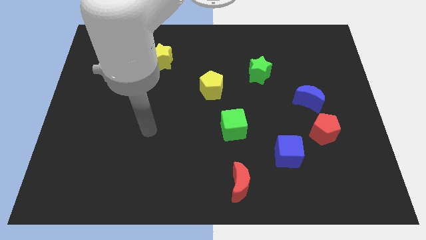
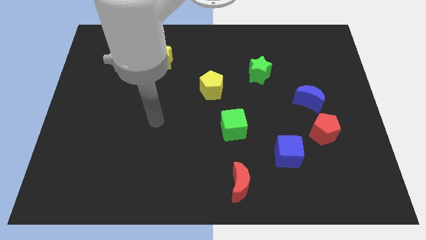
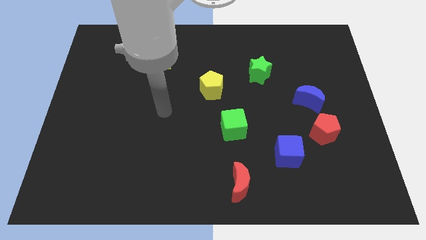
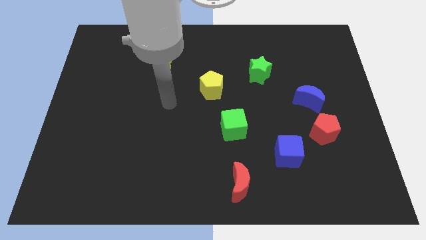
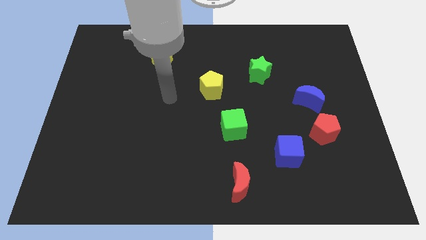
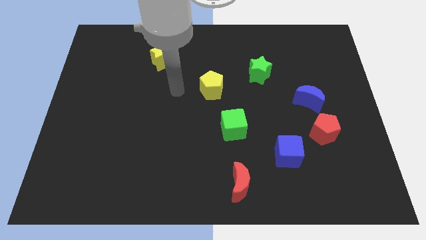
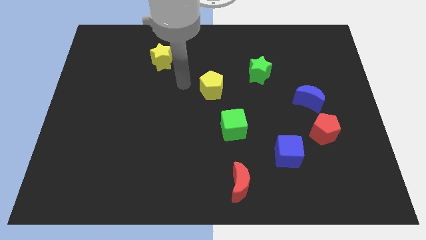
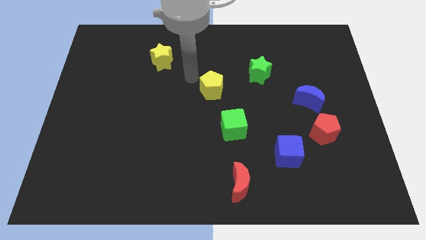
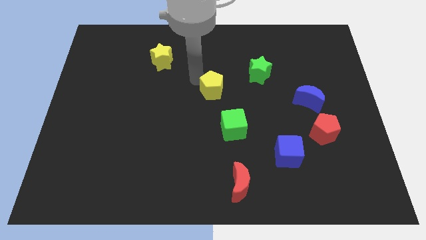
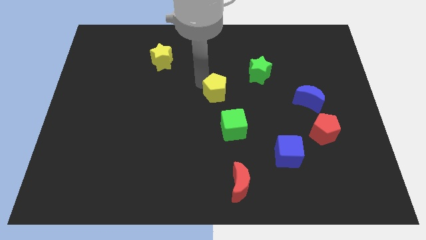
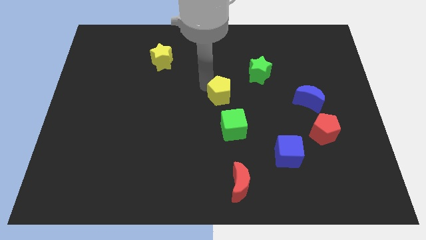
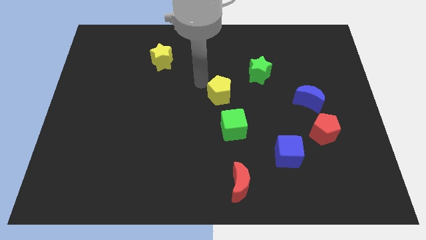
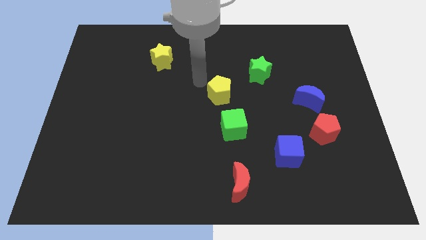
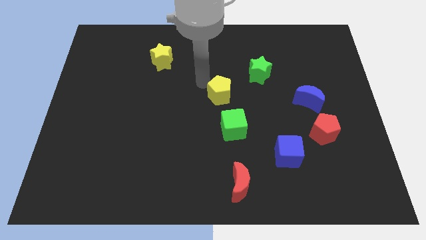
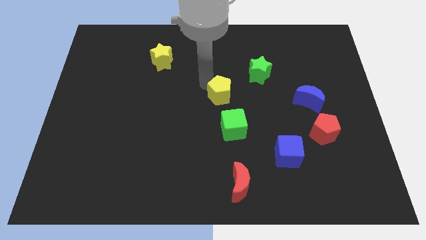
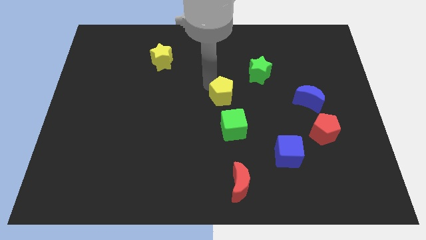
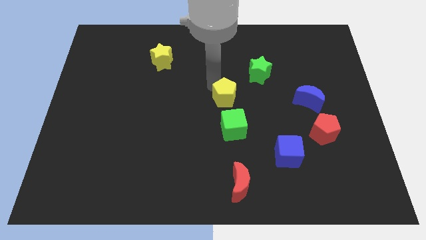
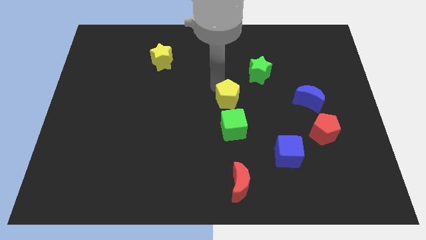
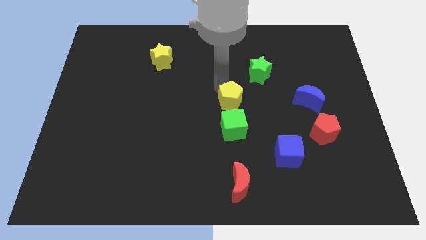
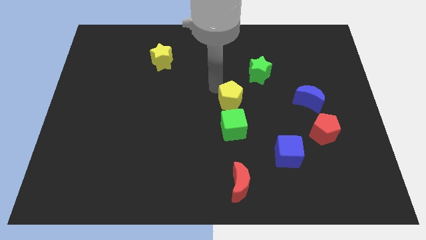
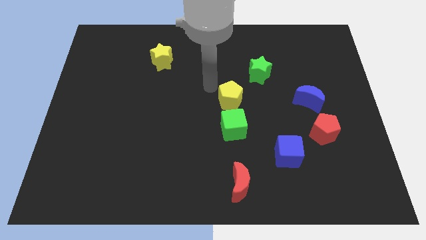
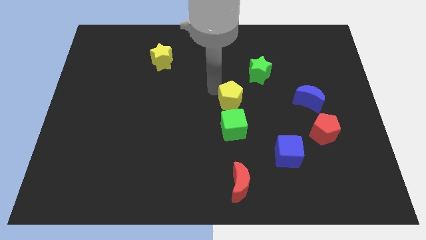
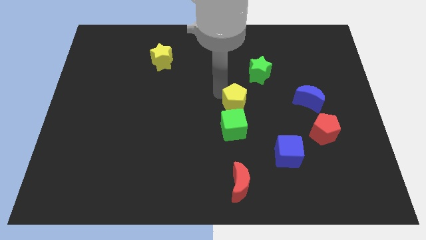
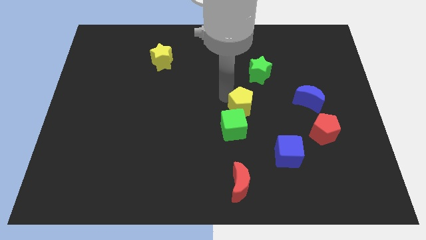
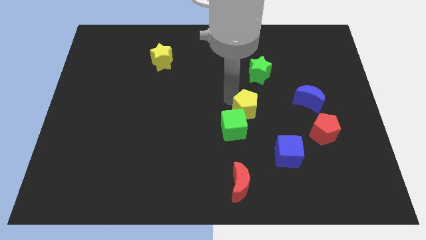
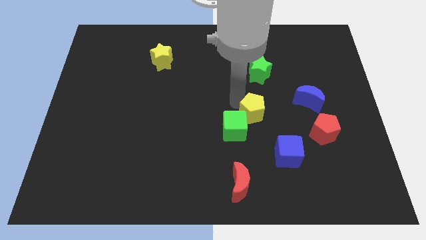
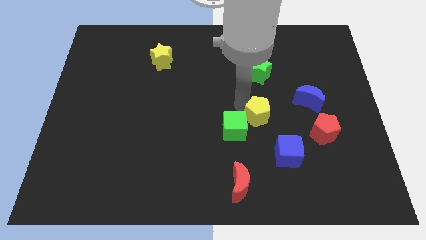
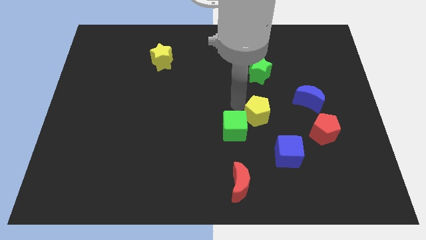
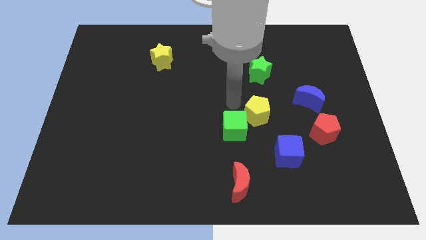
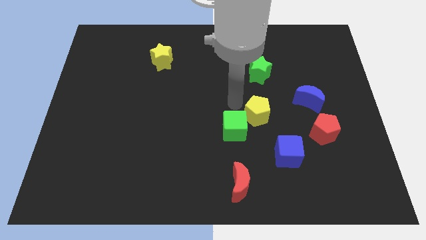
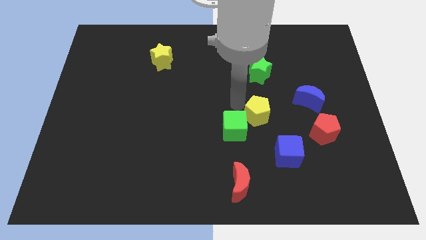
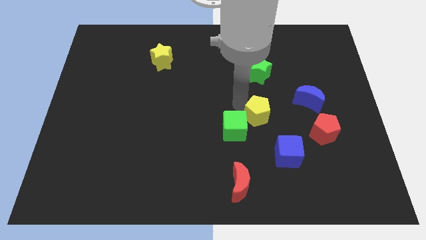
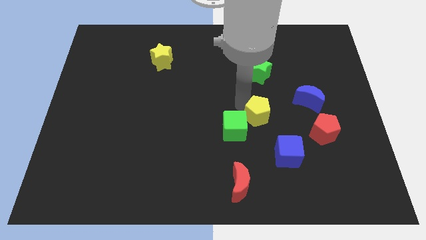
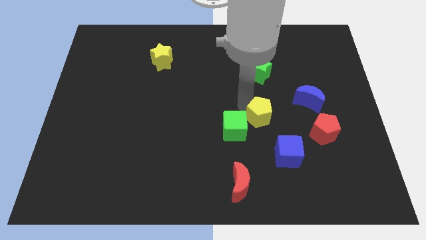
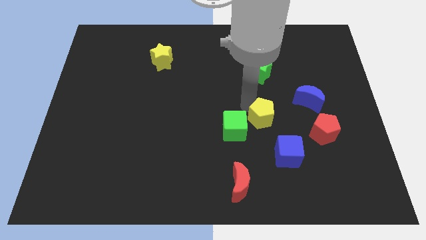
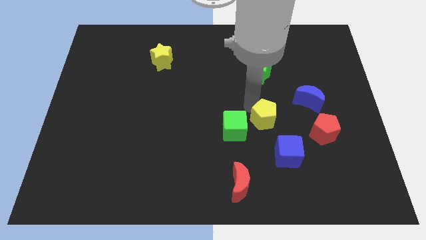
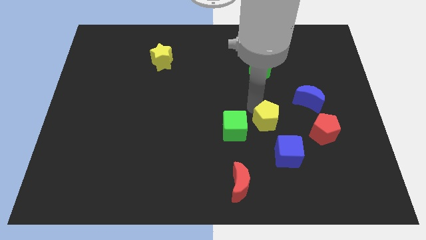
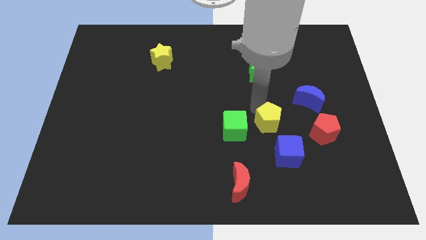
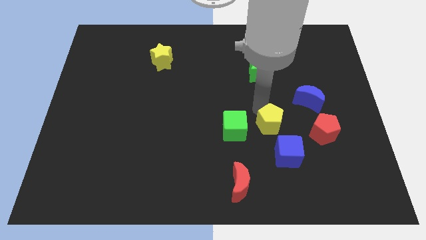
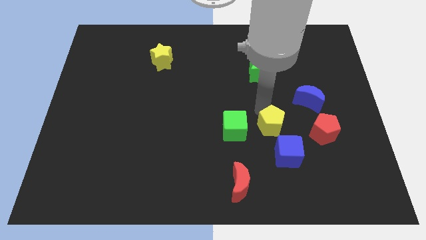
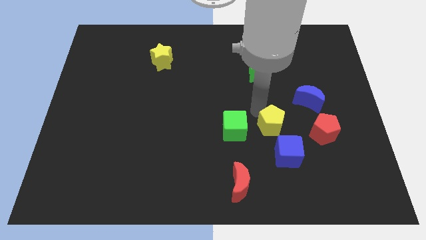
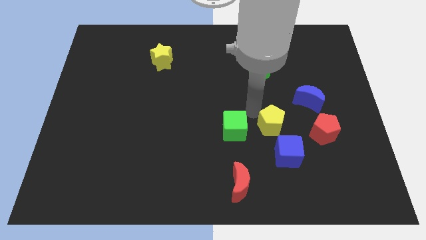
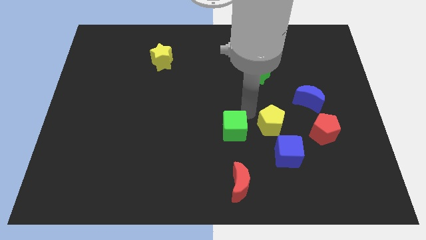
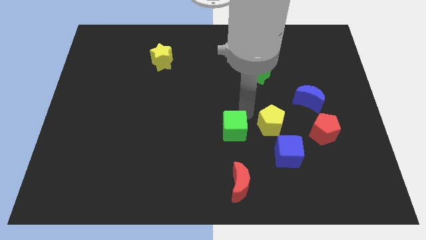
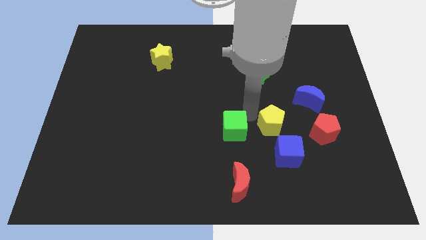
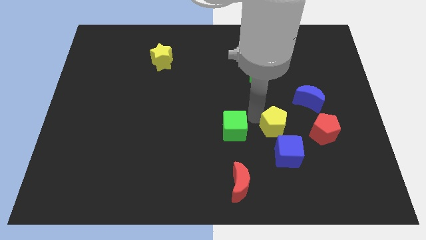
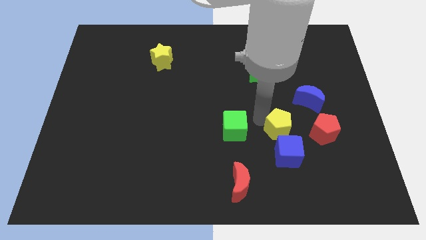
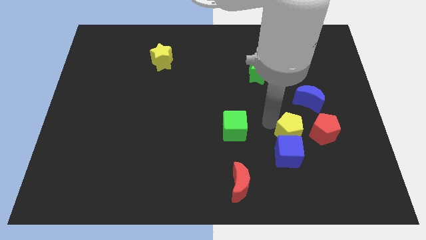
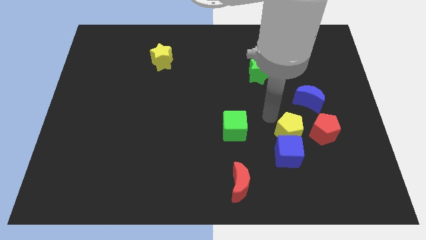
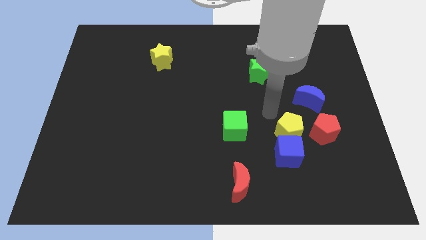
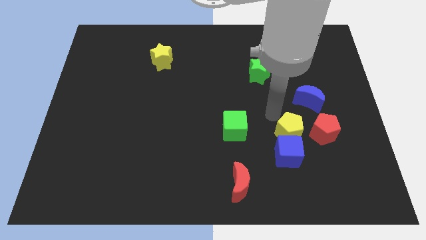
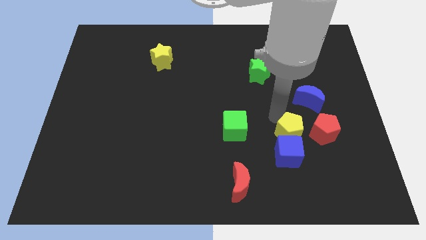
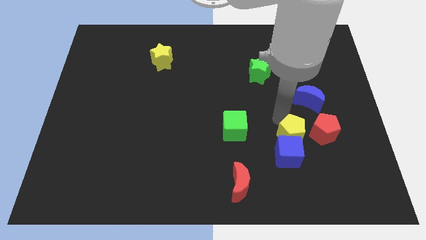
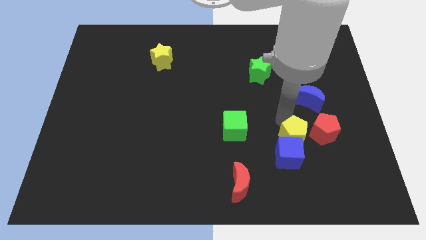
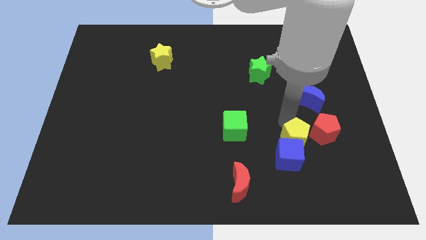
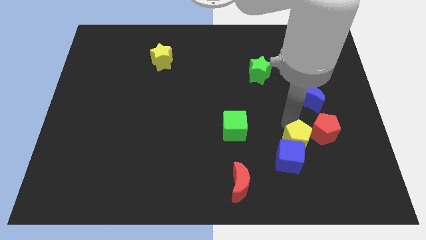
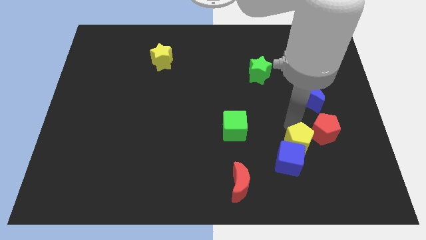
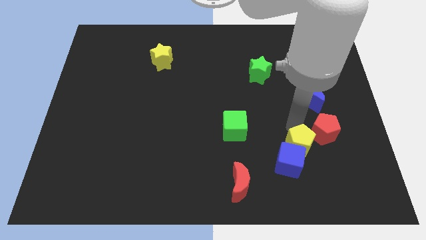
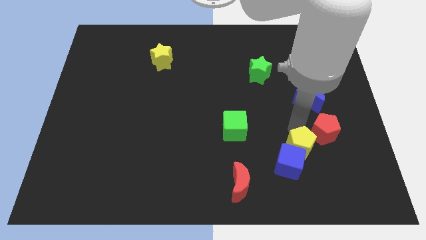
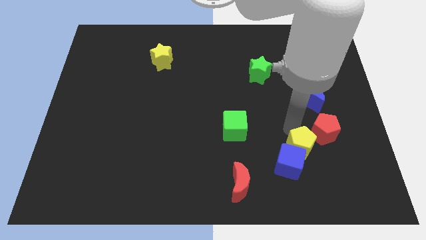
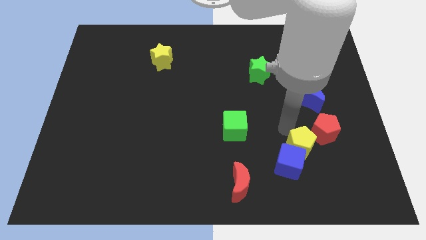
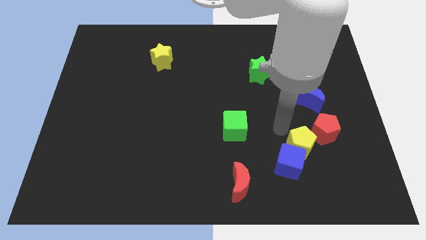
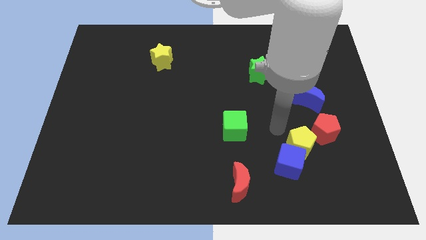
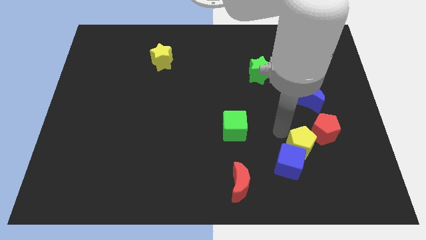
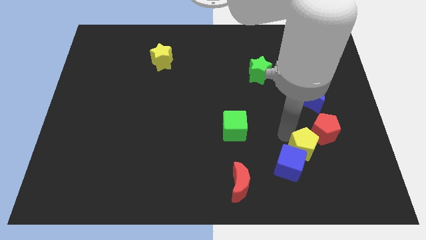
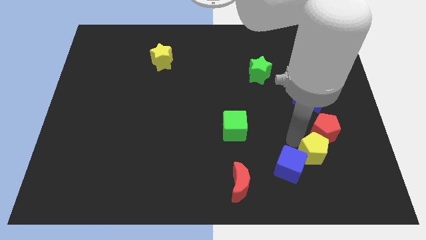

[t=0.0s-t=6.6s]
move the yellow pentagon below the red pentagon
